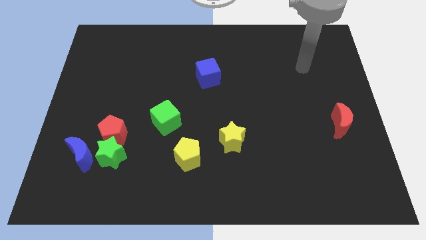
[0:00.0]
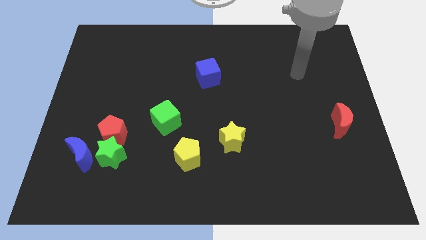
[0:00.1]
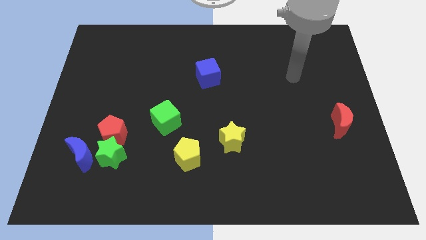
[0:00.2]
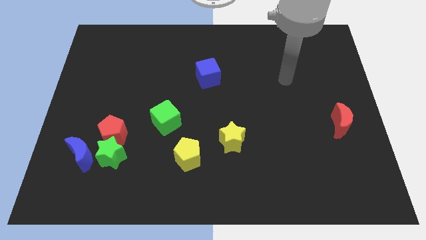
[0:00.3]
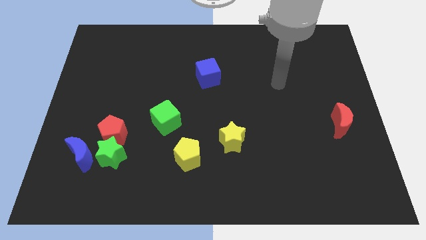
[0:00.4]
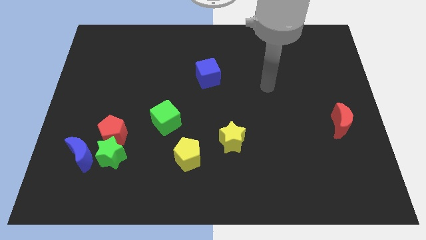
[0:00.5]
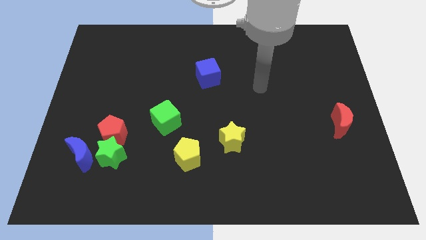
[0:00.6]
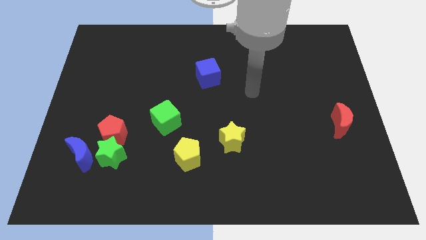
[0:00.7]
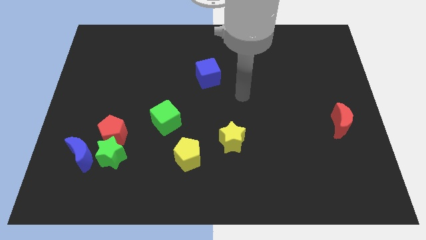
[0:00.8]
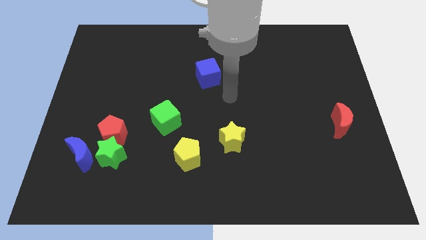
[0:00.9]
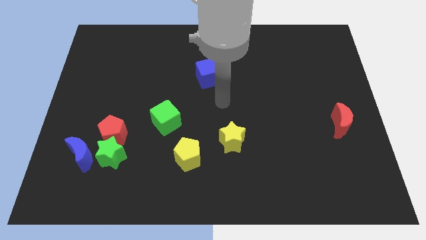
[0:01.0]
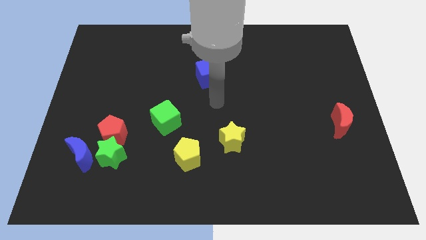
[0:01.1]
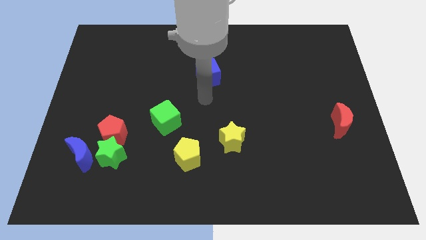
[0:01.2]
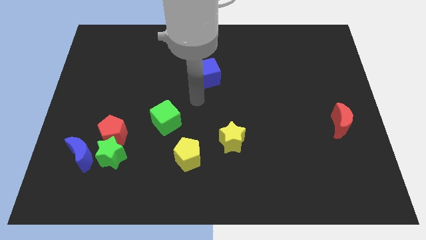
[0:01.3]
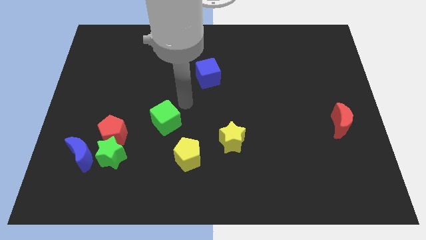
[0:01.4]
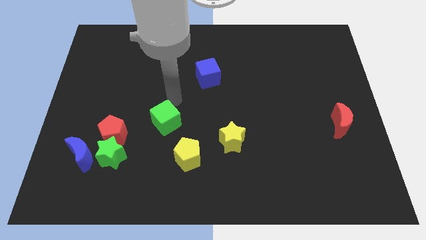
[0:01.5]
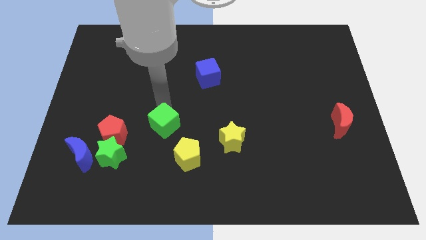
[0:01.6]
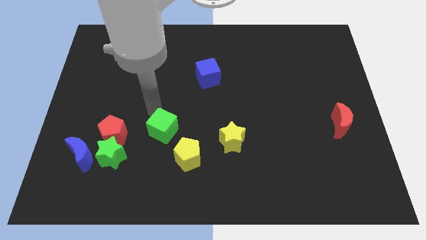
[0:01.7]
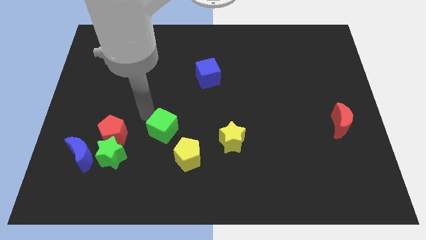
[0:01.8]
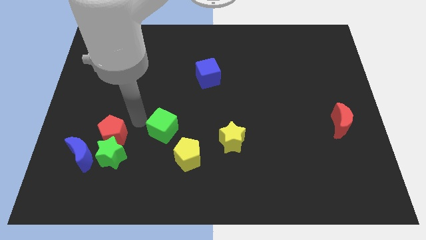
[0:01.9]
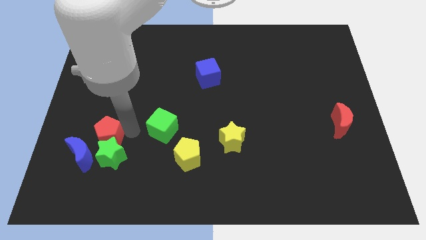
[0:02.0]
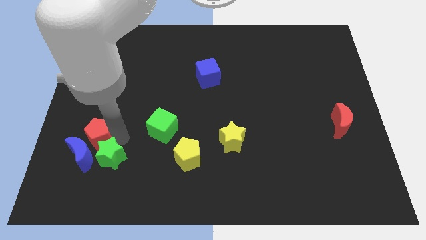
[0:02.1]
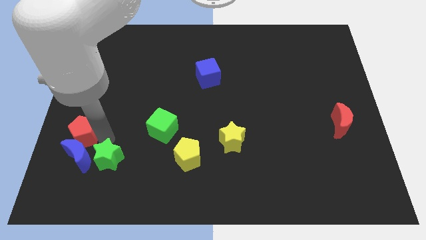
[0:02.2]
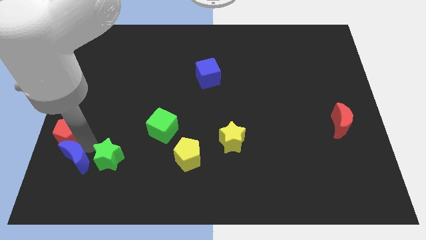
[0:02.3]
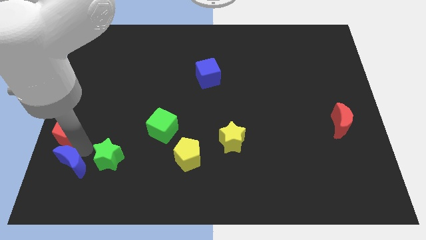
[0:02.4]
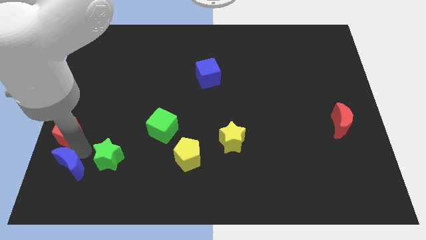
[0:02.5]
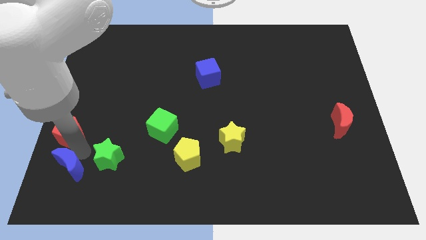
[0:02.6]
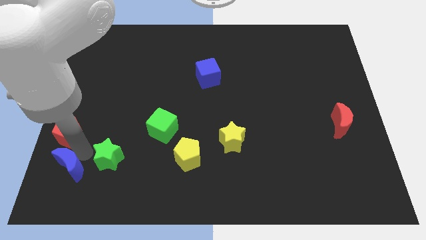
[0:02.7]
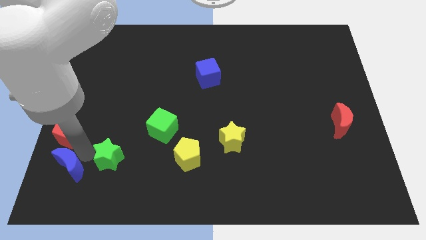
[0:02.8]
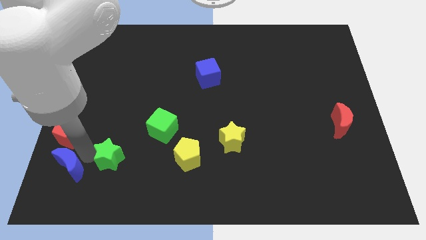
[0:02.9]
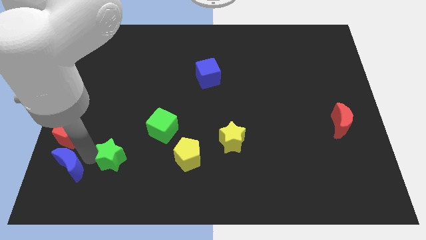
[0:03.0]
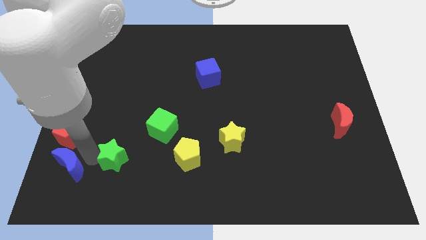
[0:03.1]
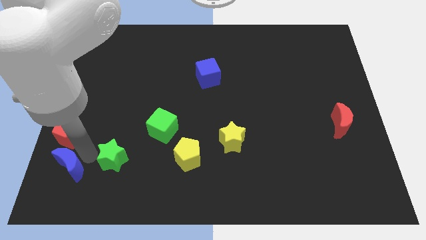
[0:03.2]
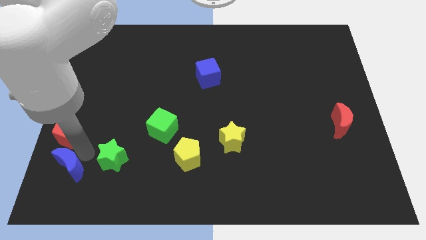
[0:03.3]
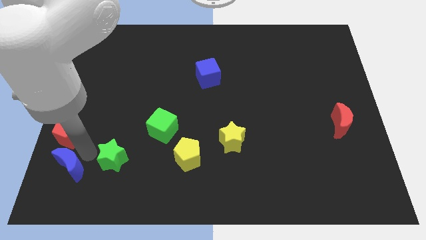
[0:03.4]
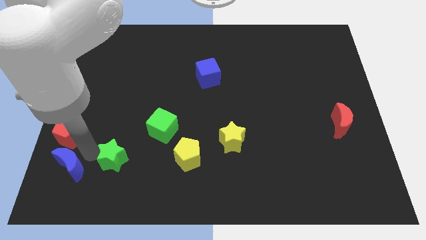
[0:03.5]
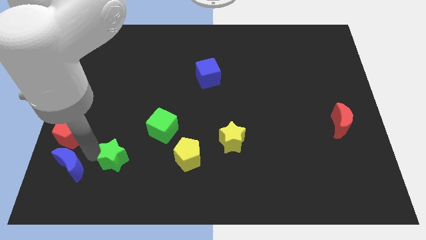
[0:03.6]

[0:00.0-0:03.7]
move the green star away from the red pentagon and blue moon

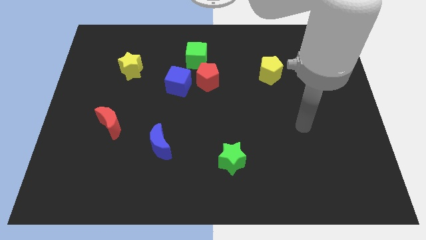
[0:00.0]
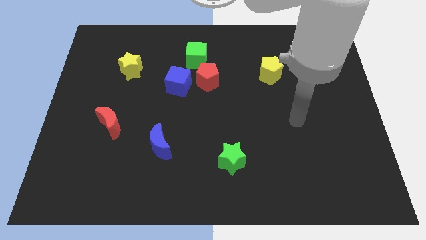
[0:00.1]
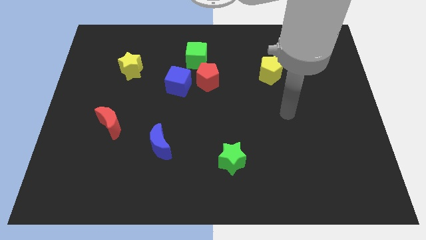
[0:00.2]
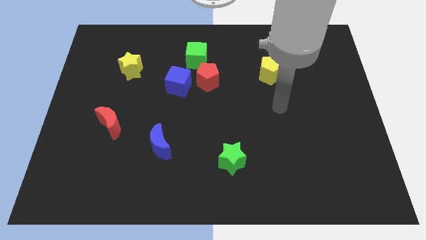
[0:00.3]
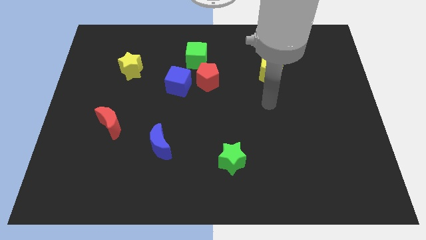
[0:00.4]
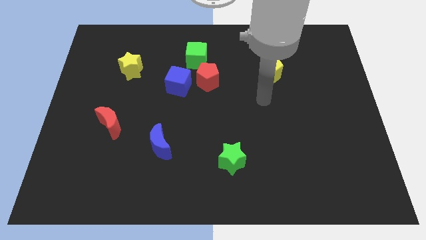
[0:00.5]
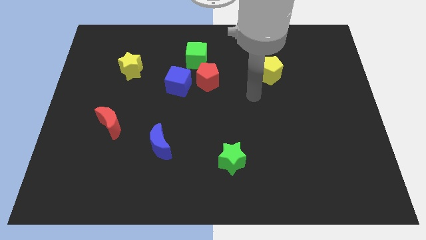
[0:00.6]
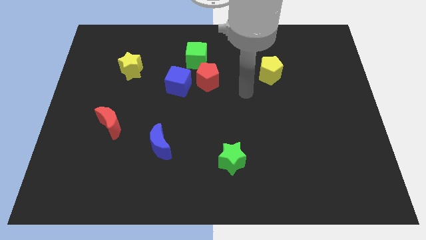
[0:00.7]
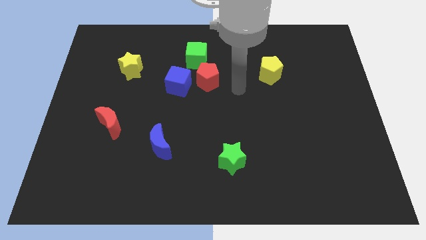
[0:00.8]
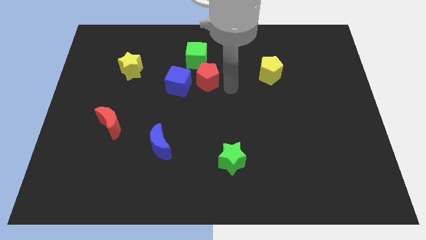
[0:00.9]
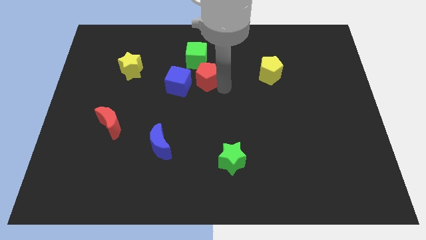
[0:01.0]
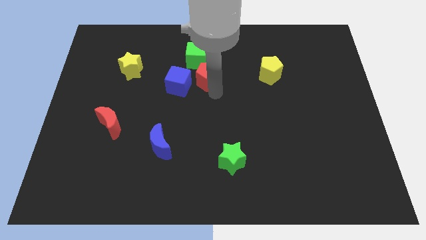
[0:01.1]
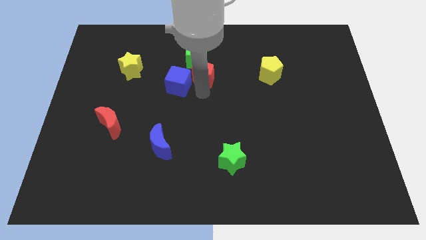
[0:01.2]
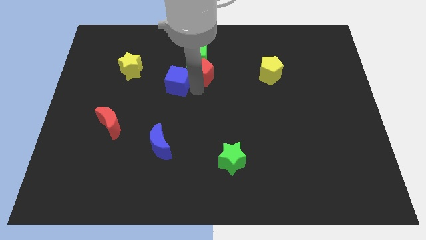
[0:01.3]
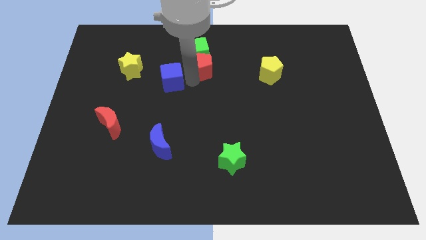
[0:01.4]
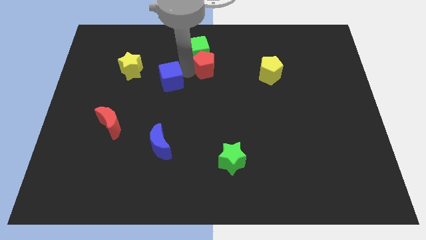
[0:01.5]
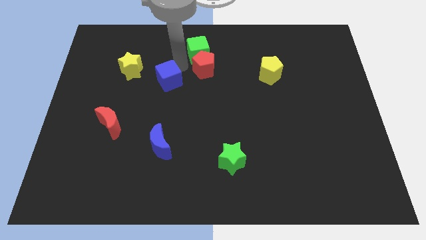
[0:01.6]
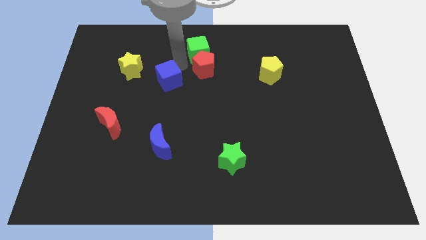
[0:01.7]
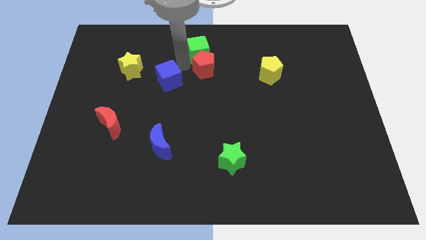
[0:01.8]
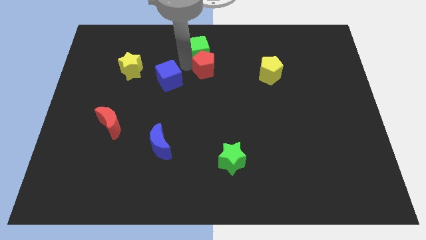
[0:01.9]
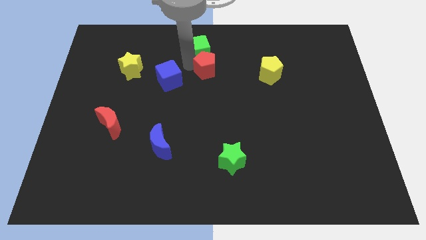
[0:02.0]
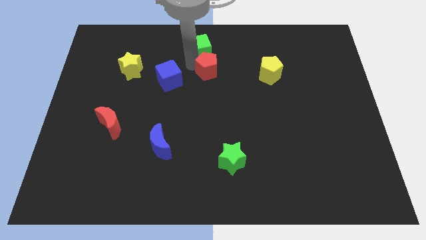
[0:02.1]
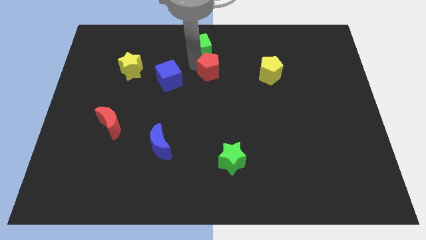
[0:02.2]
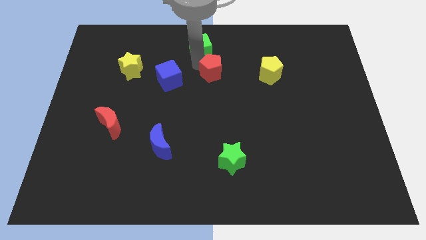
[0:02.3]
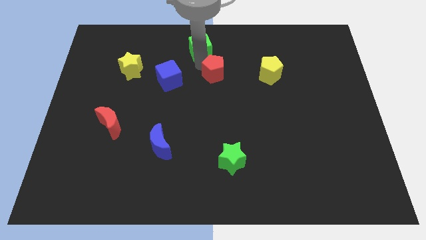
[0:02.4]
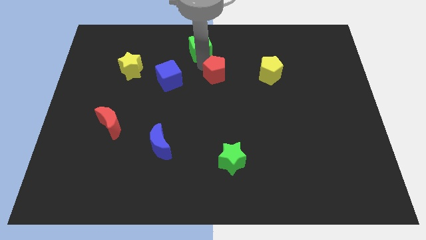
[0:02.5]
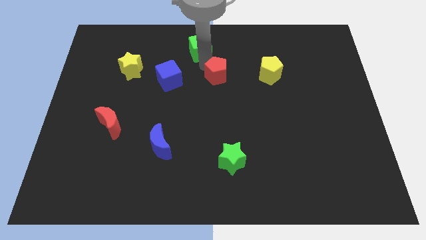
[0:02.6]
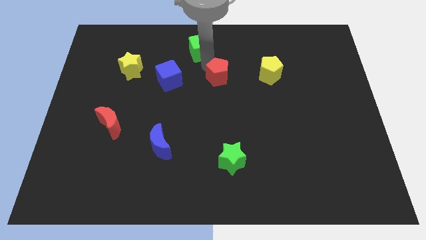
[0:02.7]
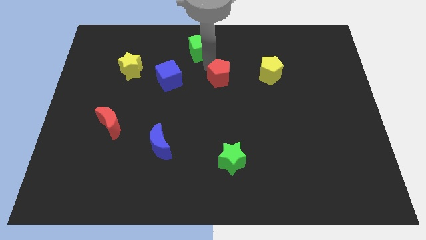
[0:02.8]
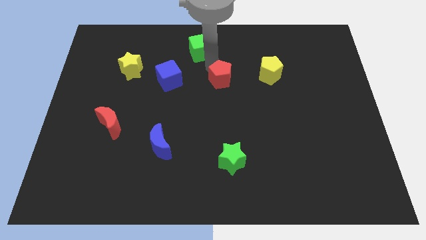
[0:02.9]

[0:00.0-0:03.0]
separate the red pentagon from the blue cube and green cube

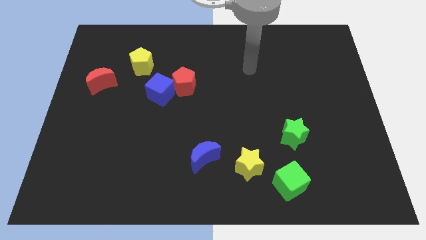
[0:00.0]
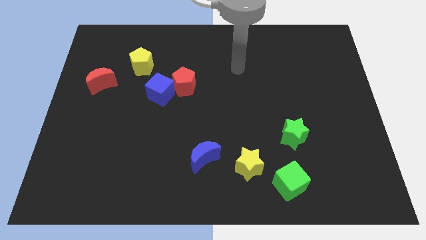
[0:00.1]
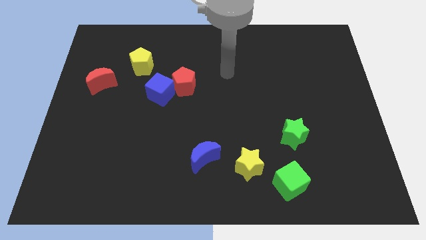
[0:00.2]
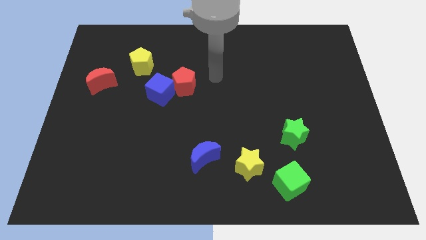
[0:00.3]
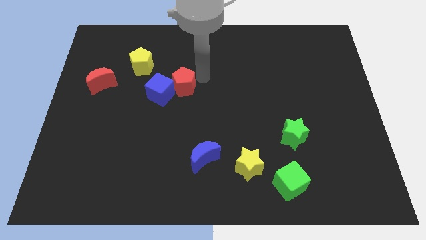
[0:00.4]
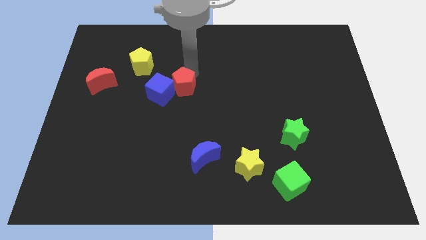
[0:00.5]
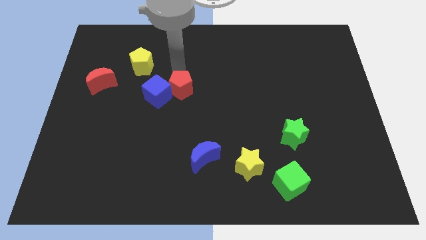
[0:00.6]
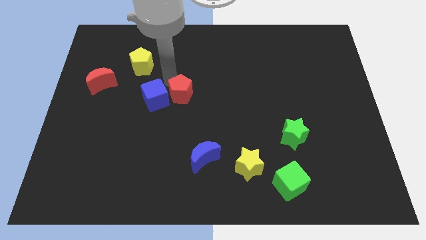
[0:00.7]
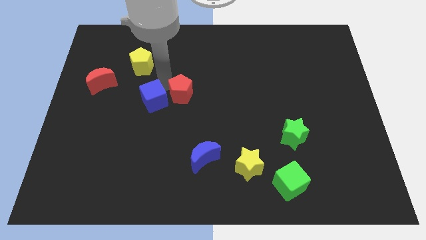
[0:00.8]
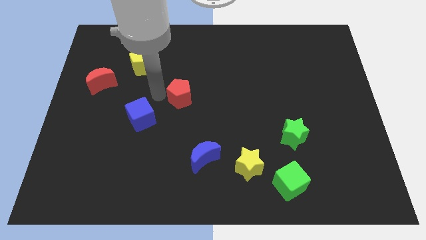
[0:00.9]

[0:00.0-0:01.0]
move the red pentagon away from the blue cube

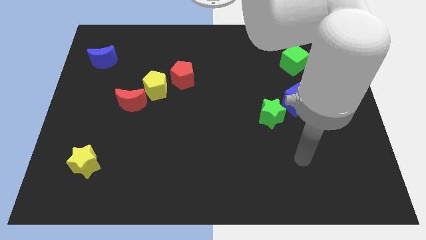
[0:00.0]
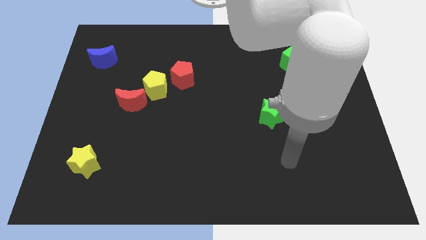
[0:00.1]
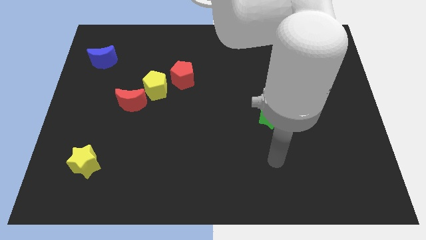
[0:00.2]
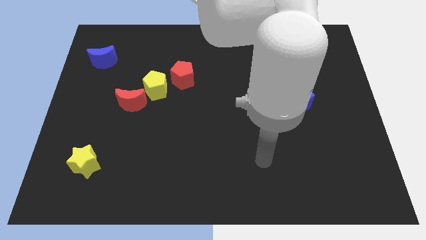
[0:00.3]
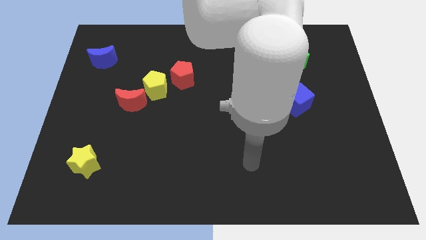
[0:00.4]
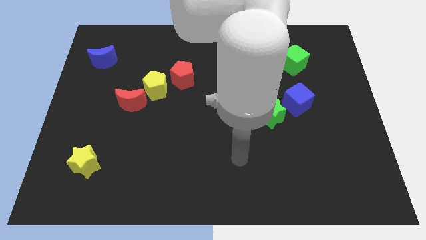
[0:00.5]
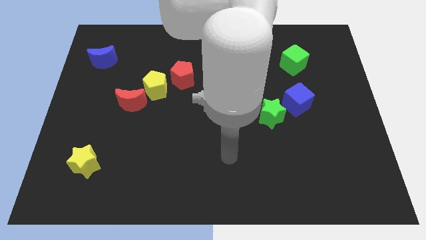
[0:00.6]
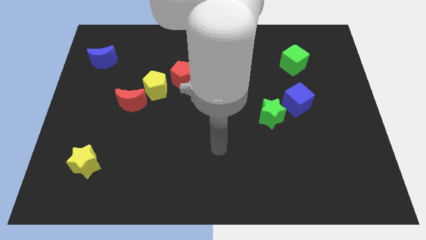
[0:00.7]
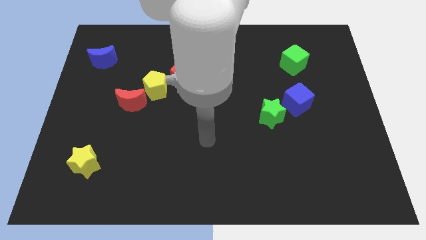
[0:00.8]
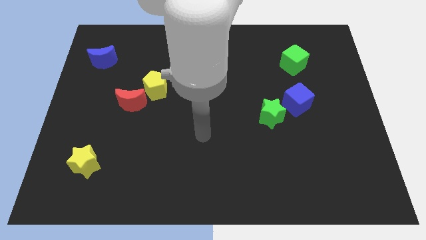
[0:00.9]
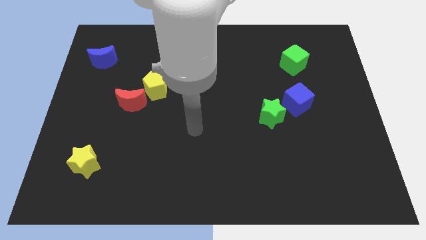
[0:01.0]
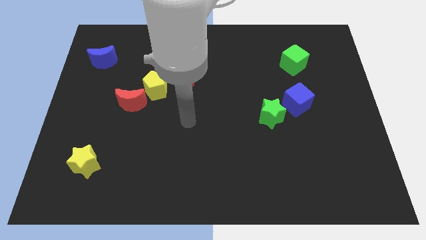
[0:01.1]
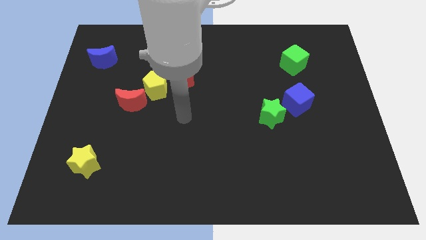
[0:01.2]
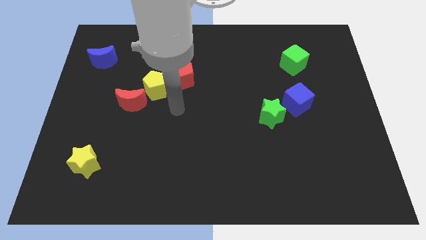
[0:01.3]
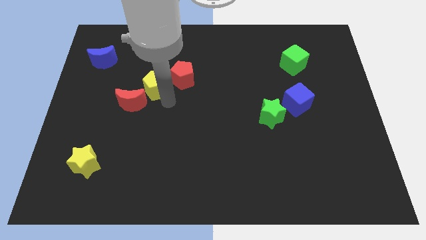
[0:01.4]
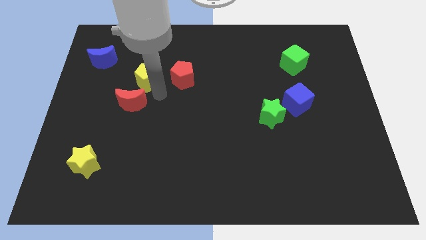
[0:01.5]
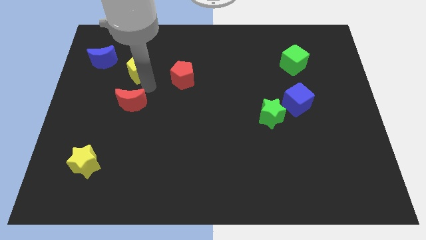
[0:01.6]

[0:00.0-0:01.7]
separate the red moon from the yellow pentagon
